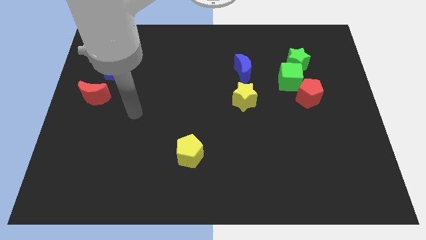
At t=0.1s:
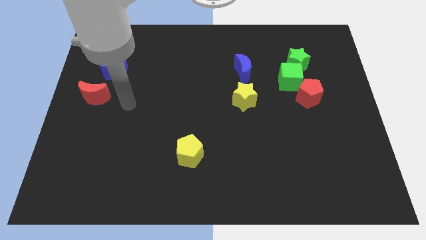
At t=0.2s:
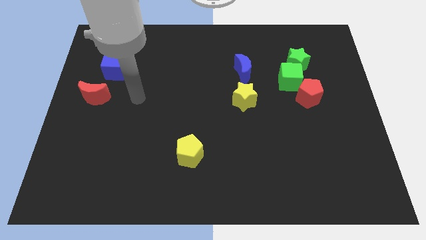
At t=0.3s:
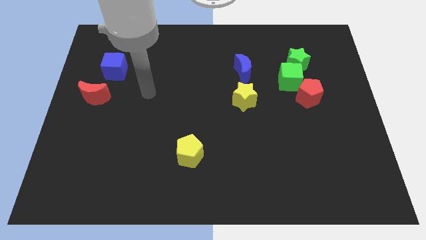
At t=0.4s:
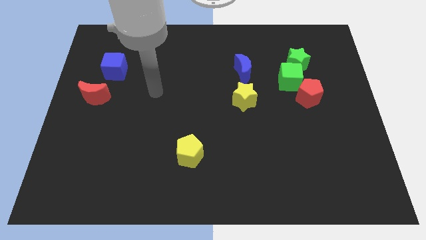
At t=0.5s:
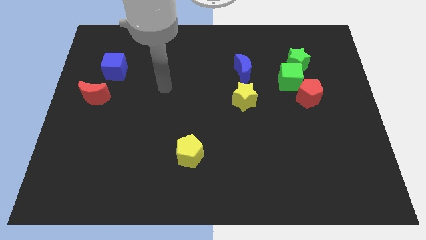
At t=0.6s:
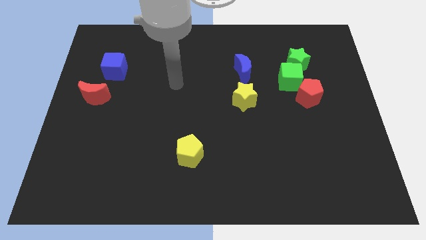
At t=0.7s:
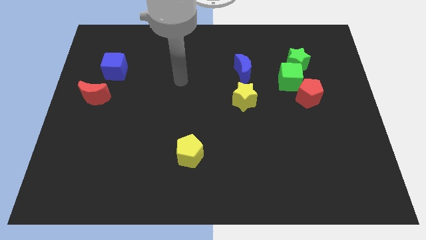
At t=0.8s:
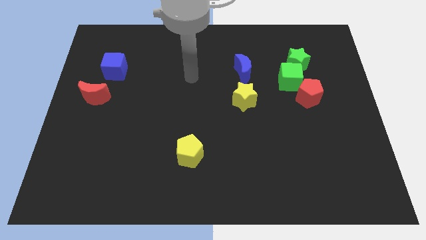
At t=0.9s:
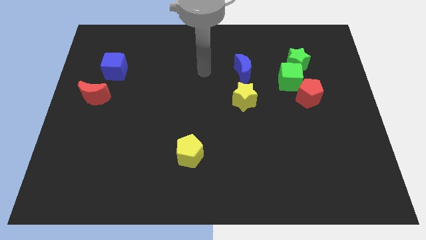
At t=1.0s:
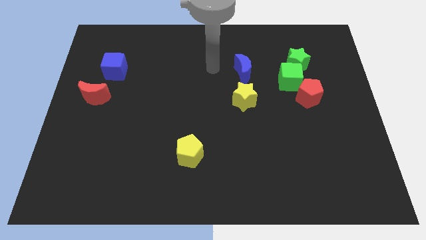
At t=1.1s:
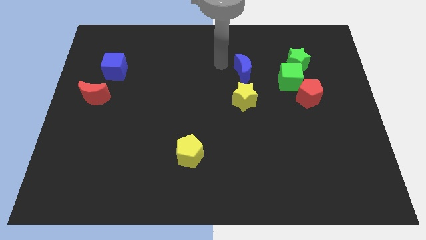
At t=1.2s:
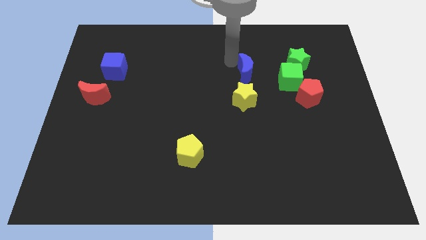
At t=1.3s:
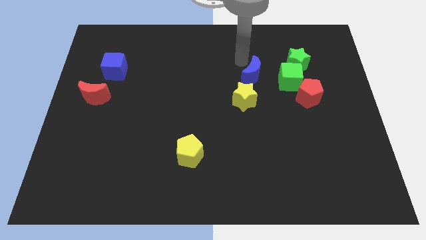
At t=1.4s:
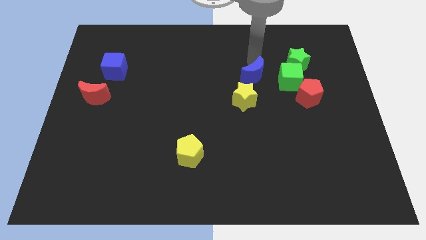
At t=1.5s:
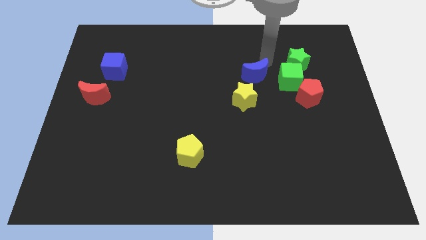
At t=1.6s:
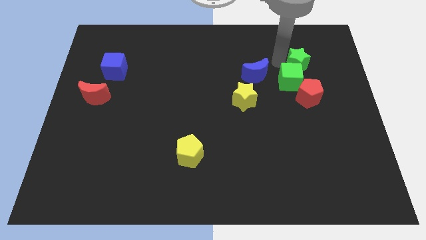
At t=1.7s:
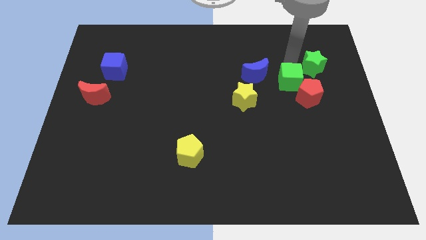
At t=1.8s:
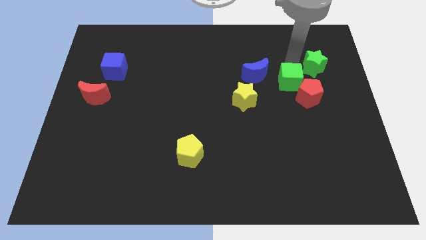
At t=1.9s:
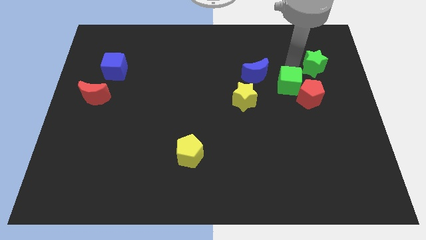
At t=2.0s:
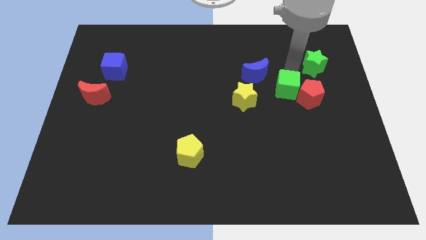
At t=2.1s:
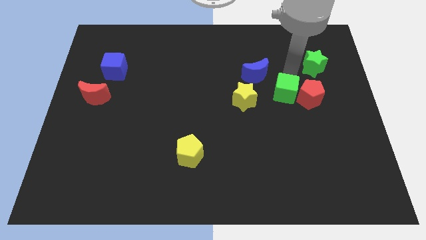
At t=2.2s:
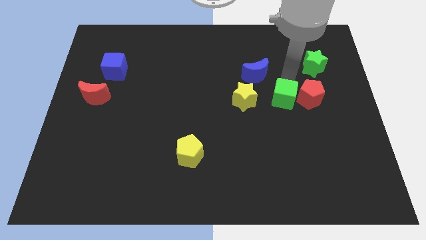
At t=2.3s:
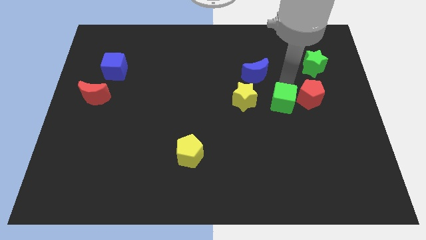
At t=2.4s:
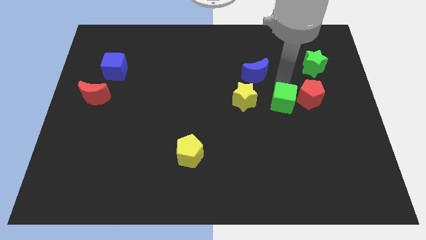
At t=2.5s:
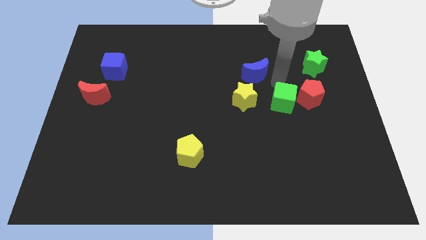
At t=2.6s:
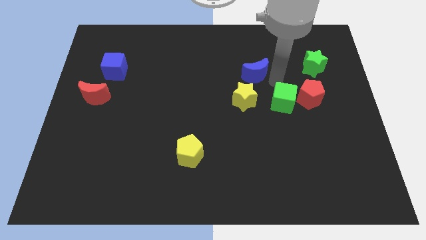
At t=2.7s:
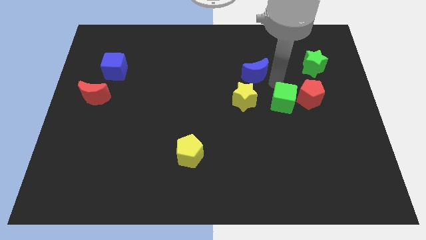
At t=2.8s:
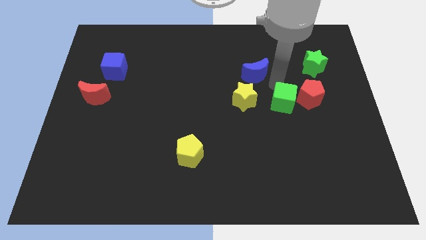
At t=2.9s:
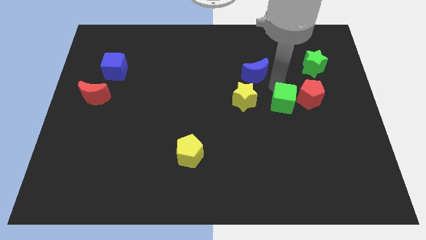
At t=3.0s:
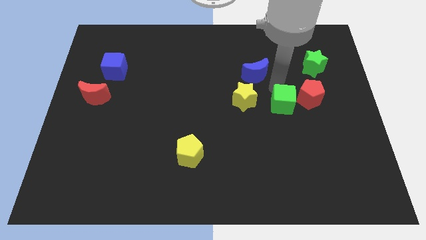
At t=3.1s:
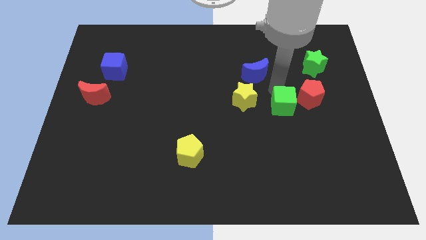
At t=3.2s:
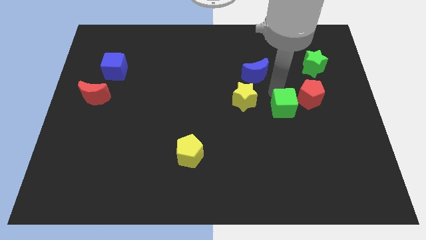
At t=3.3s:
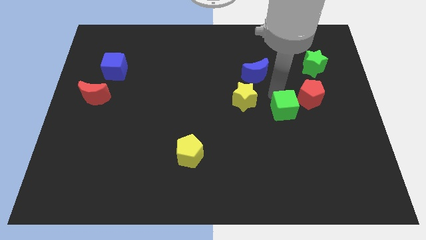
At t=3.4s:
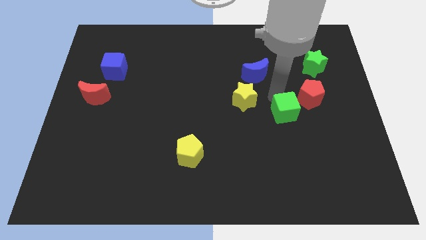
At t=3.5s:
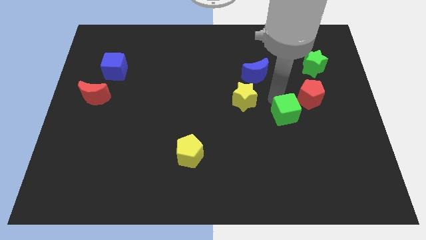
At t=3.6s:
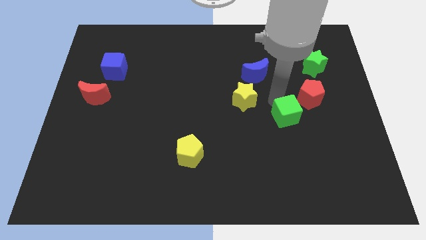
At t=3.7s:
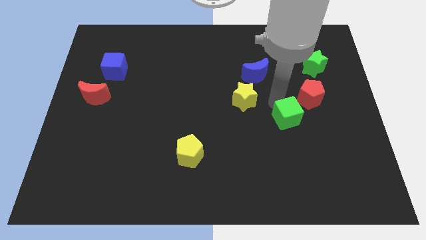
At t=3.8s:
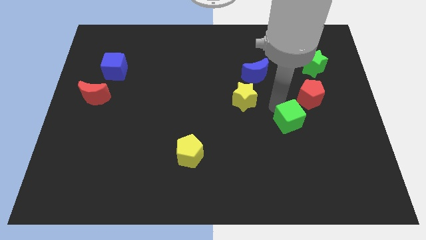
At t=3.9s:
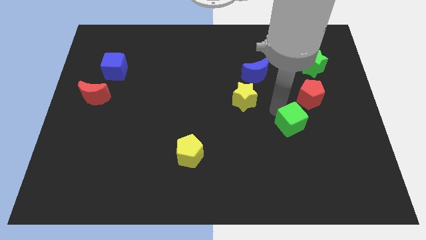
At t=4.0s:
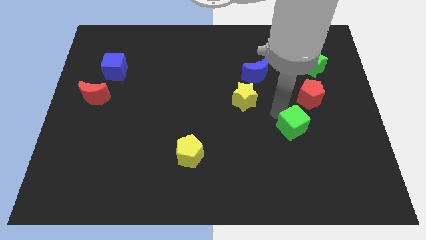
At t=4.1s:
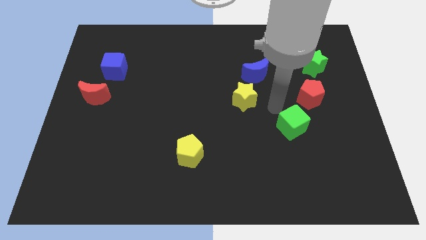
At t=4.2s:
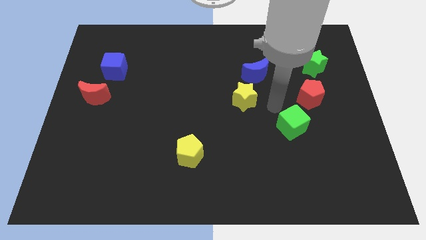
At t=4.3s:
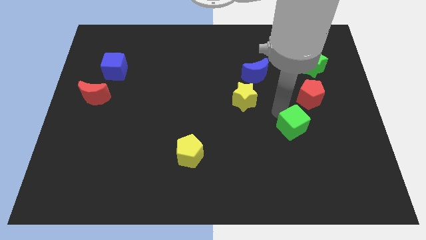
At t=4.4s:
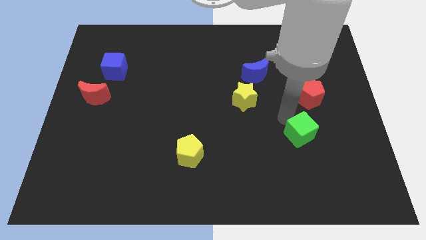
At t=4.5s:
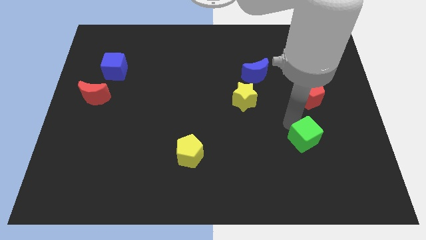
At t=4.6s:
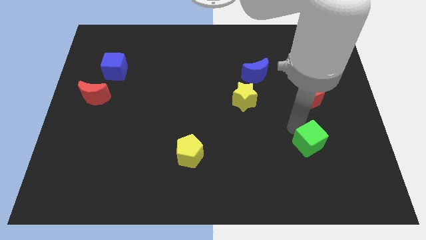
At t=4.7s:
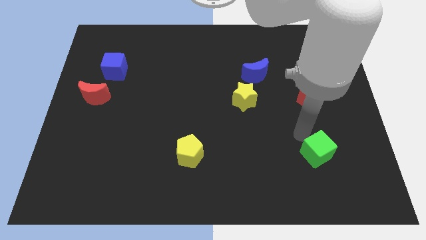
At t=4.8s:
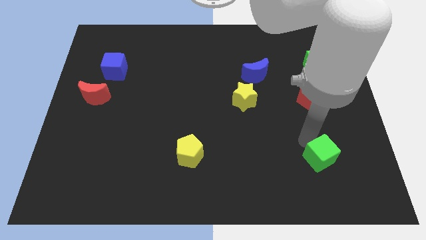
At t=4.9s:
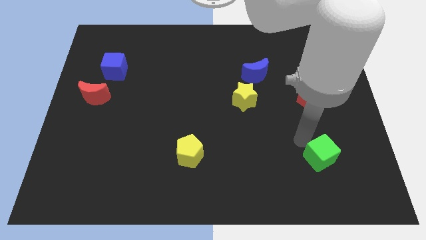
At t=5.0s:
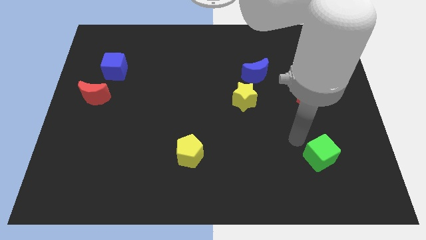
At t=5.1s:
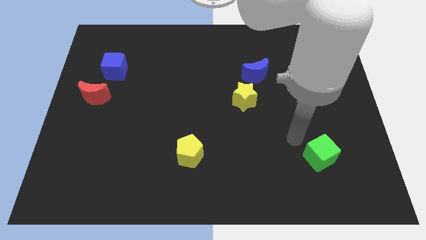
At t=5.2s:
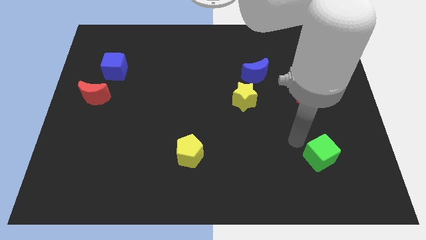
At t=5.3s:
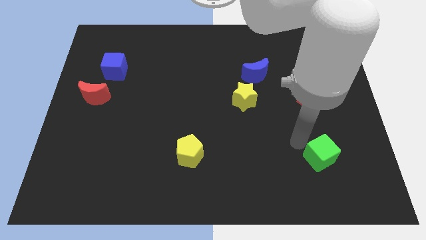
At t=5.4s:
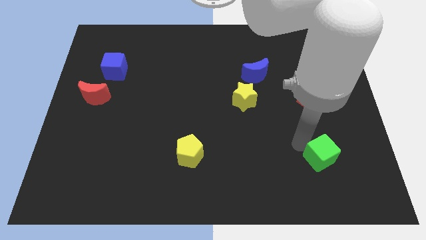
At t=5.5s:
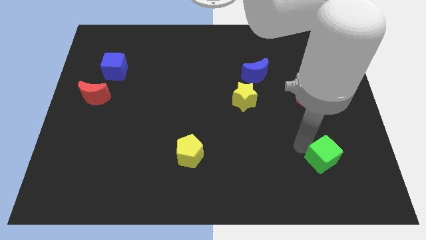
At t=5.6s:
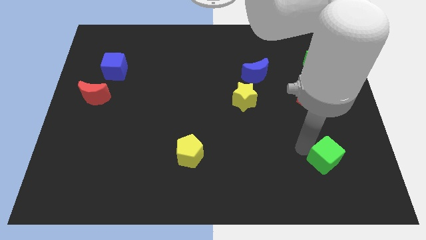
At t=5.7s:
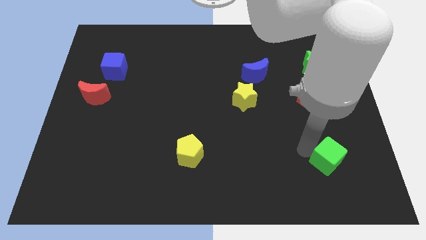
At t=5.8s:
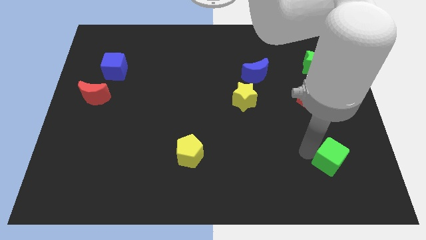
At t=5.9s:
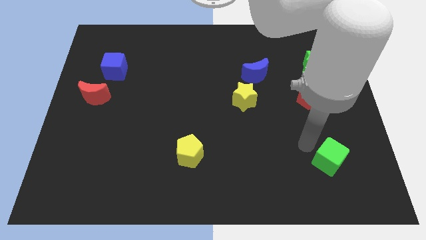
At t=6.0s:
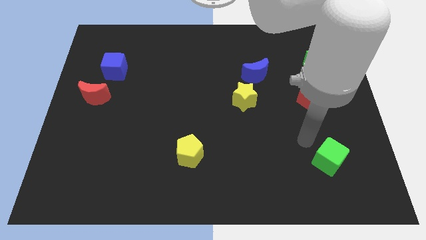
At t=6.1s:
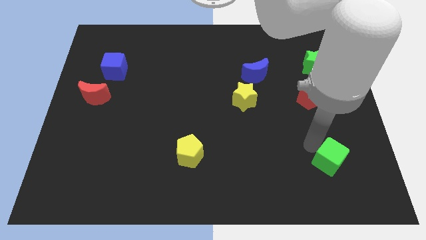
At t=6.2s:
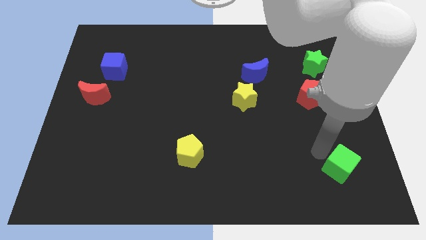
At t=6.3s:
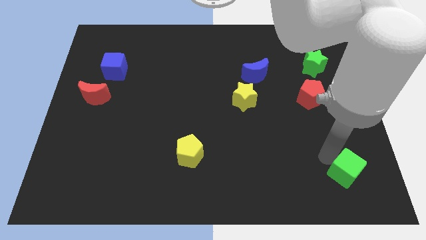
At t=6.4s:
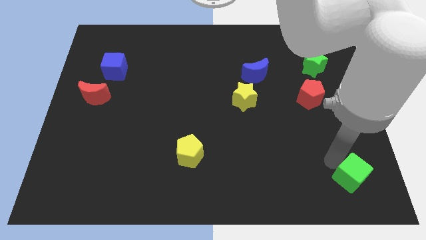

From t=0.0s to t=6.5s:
move the green cube to the bottom right corner

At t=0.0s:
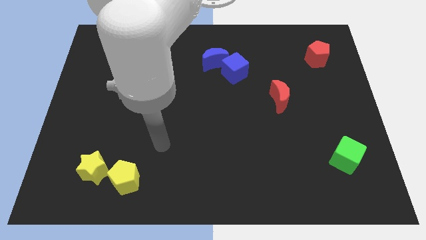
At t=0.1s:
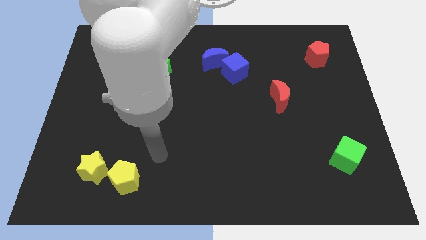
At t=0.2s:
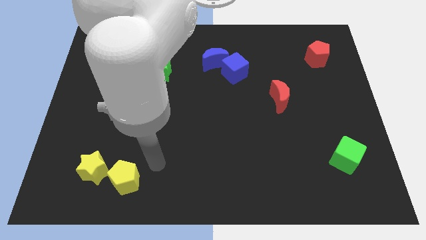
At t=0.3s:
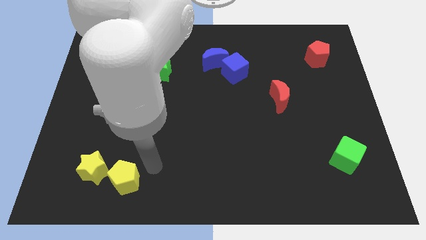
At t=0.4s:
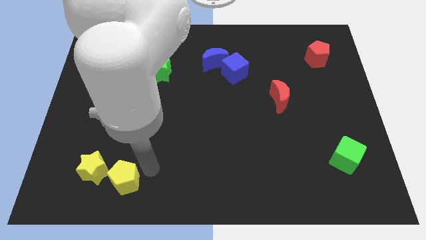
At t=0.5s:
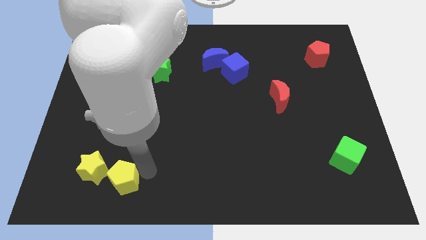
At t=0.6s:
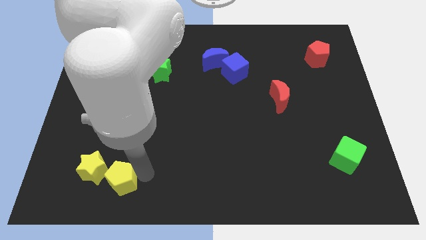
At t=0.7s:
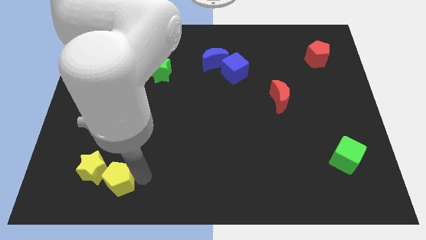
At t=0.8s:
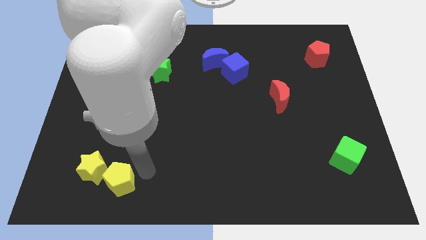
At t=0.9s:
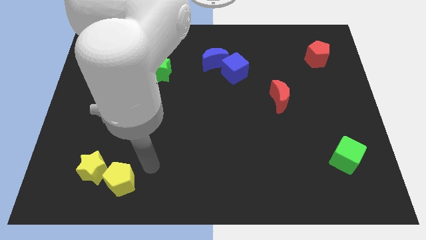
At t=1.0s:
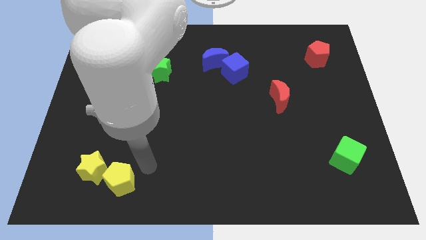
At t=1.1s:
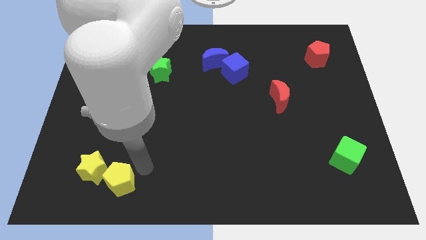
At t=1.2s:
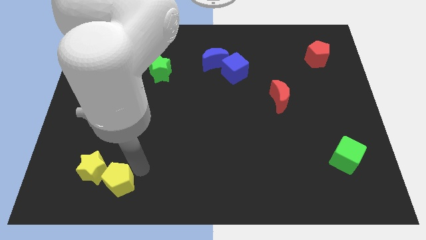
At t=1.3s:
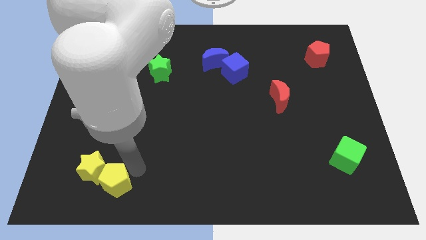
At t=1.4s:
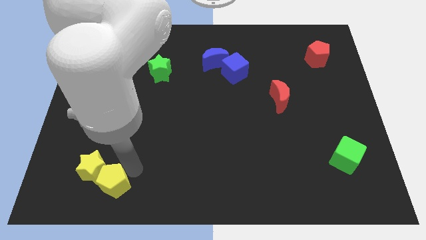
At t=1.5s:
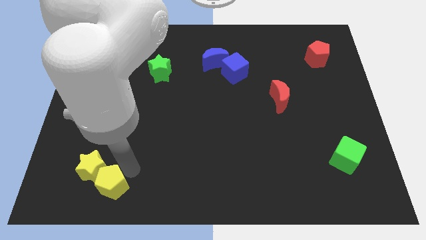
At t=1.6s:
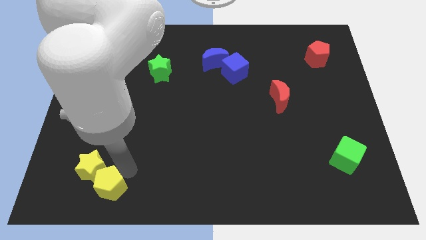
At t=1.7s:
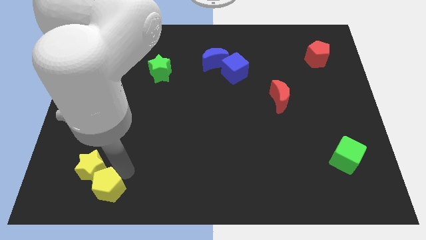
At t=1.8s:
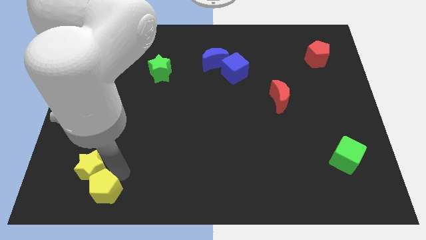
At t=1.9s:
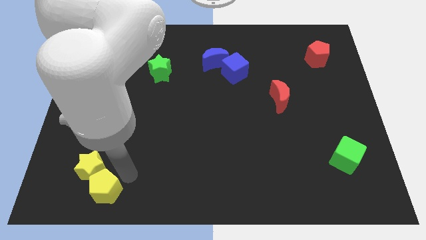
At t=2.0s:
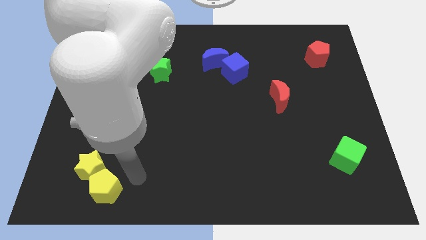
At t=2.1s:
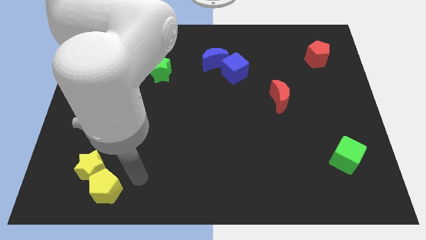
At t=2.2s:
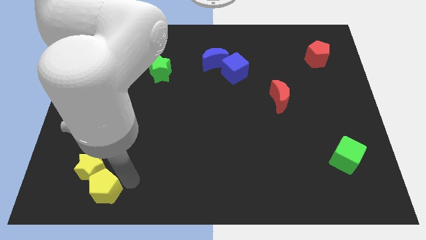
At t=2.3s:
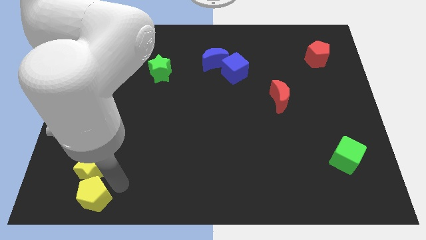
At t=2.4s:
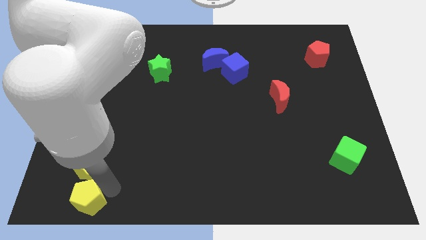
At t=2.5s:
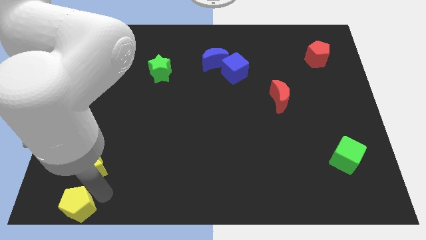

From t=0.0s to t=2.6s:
slide the yellow pentagon to the bottom left of the board
